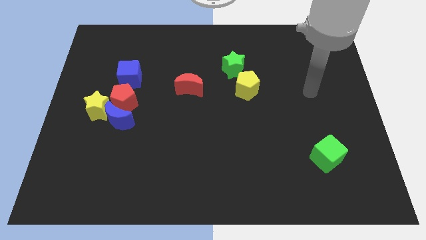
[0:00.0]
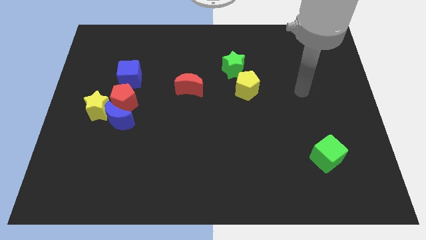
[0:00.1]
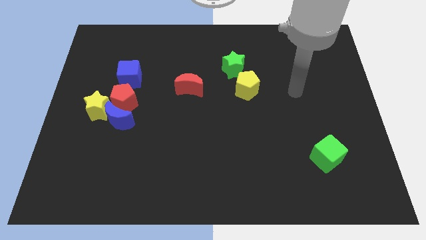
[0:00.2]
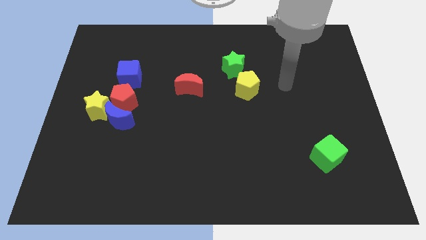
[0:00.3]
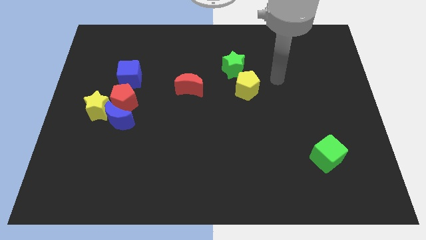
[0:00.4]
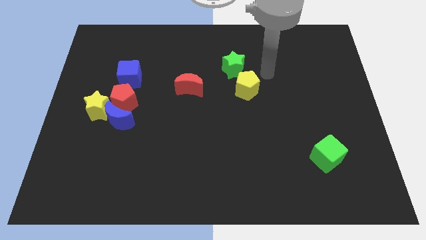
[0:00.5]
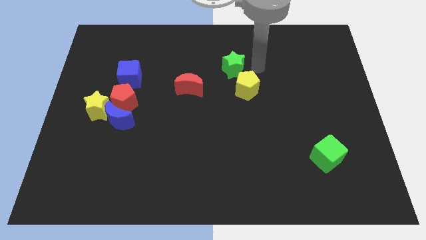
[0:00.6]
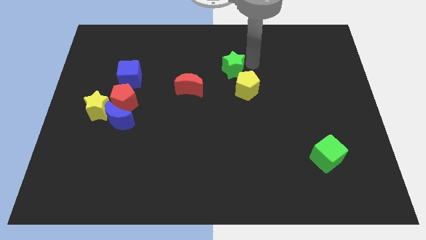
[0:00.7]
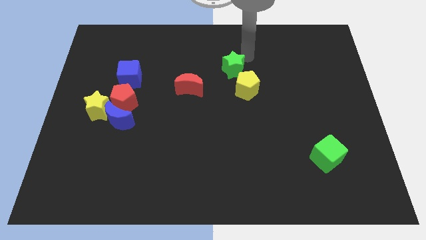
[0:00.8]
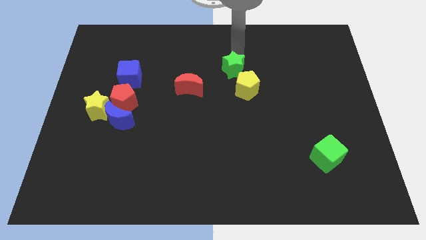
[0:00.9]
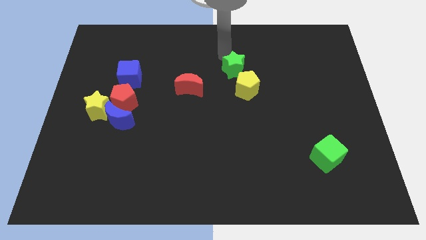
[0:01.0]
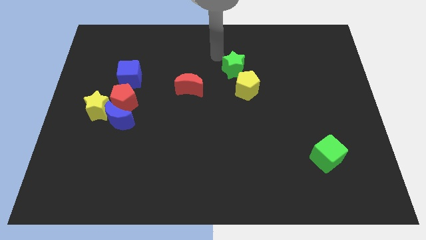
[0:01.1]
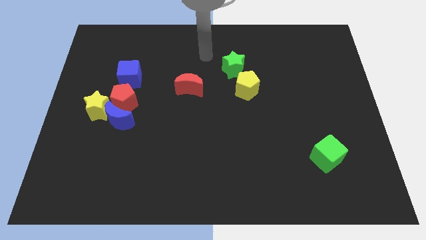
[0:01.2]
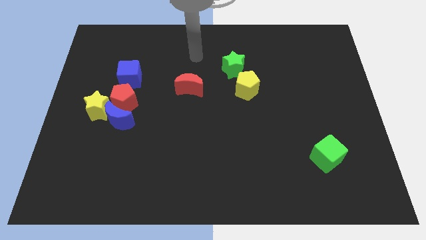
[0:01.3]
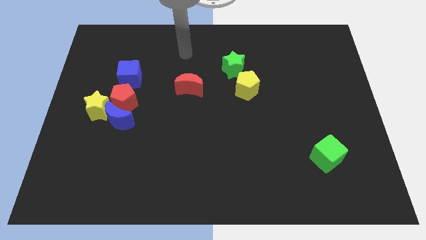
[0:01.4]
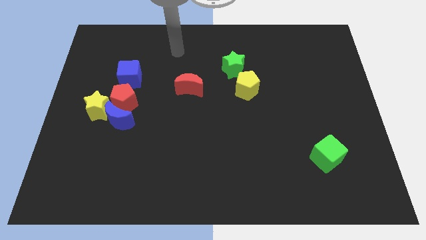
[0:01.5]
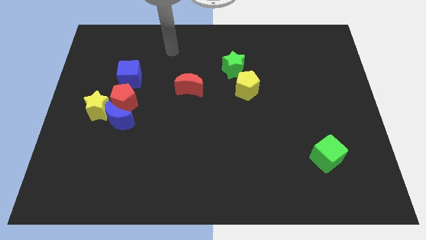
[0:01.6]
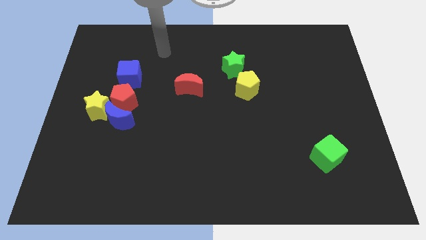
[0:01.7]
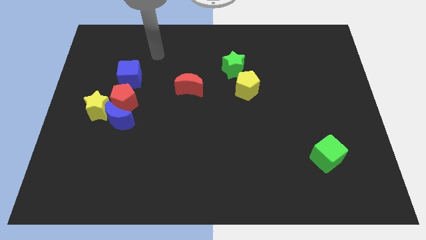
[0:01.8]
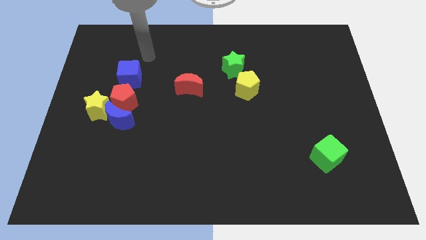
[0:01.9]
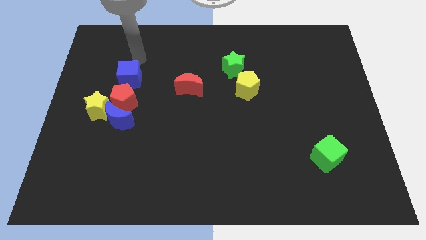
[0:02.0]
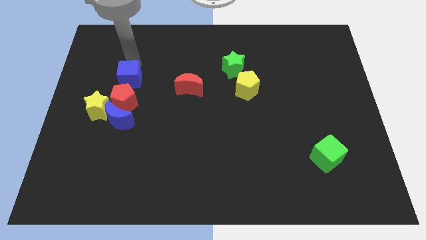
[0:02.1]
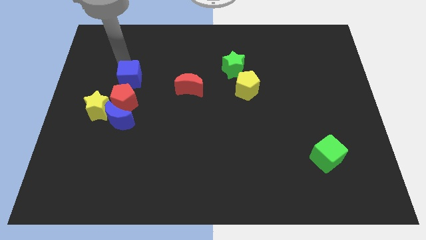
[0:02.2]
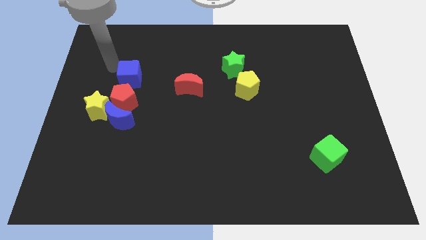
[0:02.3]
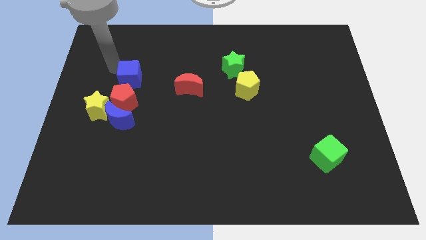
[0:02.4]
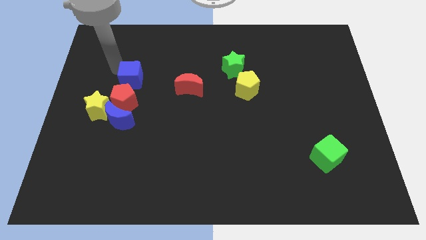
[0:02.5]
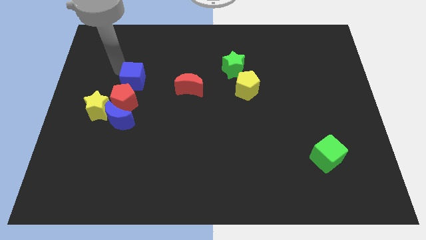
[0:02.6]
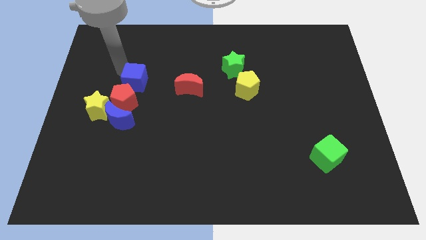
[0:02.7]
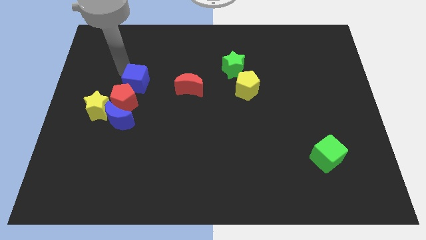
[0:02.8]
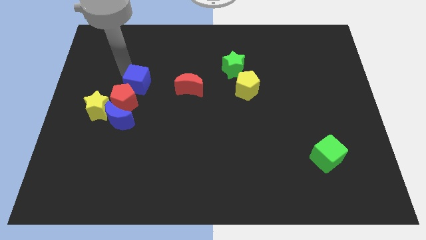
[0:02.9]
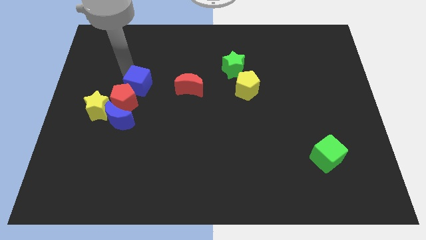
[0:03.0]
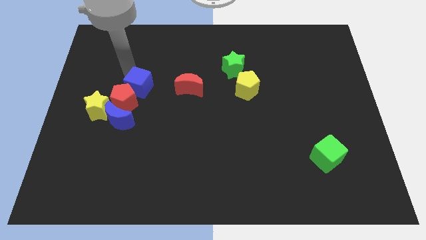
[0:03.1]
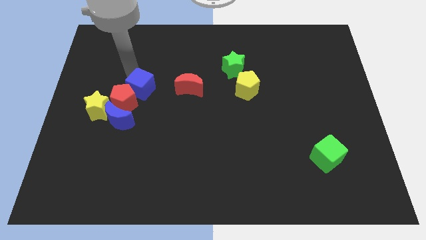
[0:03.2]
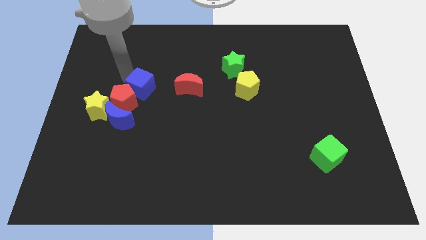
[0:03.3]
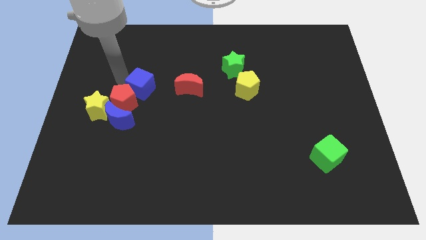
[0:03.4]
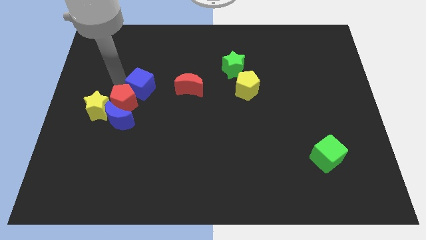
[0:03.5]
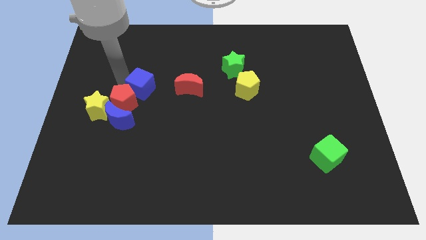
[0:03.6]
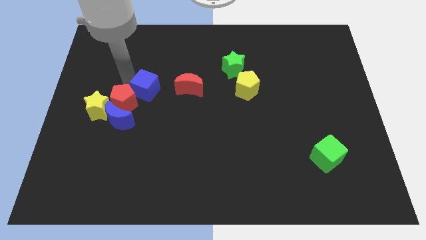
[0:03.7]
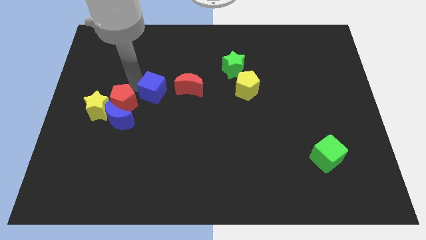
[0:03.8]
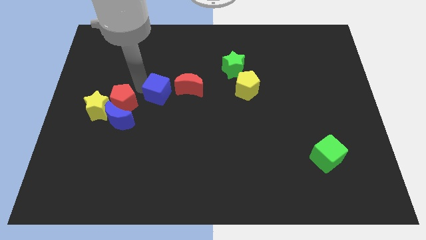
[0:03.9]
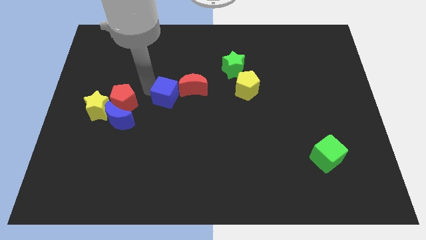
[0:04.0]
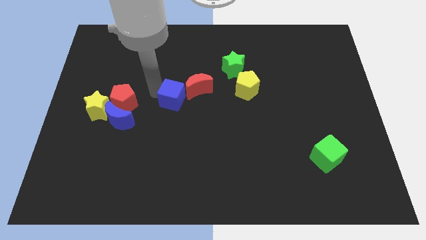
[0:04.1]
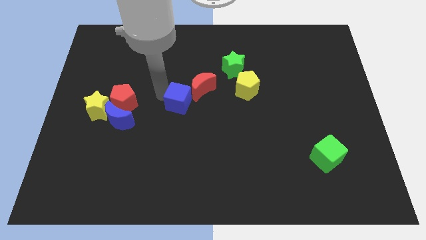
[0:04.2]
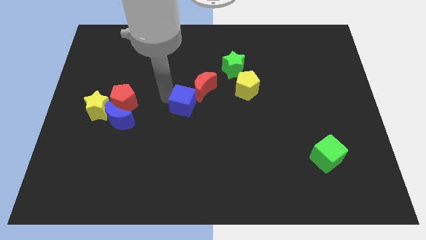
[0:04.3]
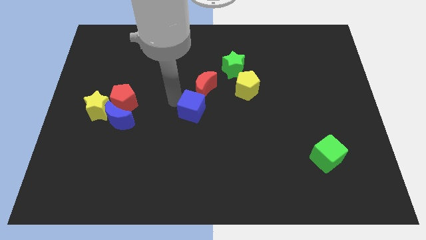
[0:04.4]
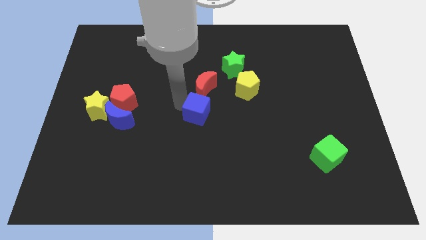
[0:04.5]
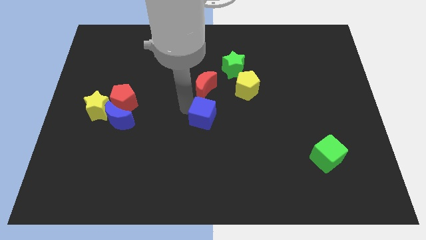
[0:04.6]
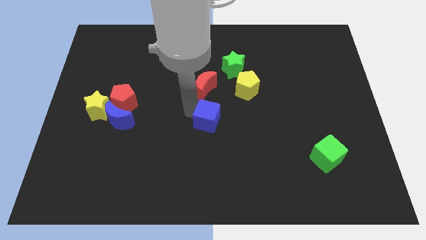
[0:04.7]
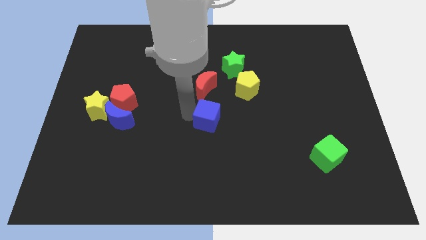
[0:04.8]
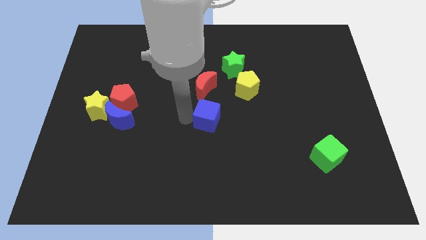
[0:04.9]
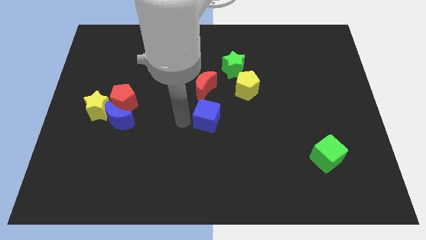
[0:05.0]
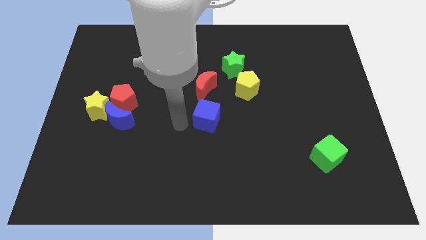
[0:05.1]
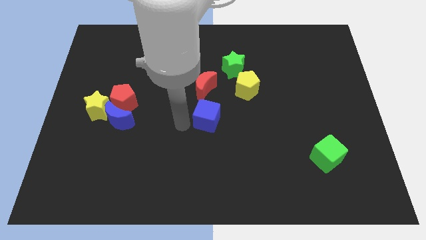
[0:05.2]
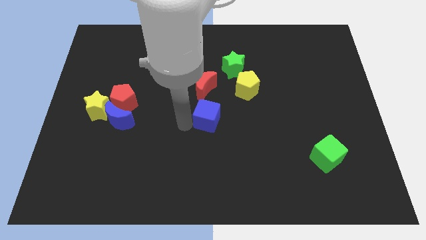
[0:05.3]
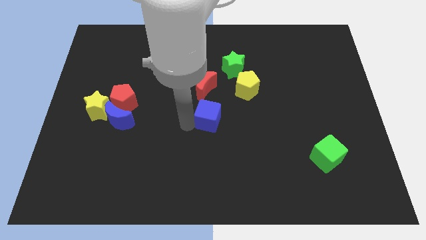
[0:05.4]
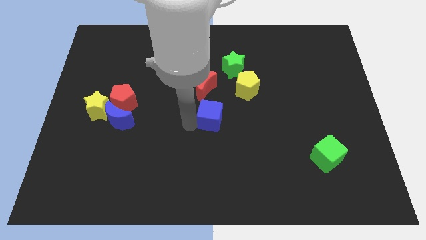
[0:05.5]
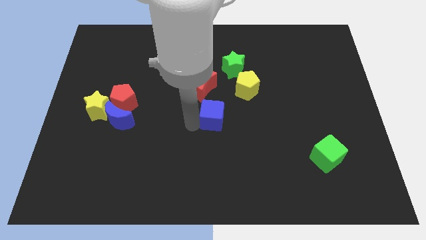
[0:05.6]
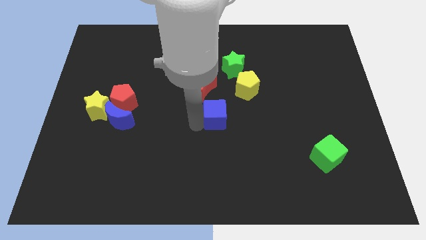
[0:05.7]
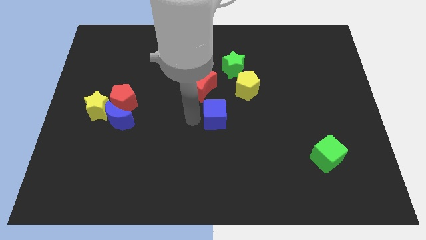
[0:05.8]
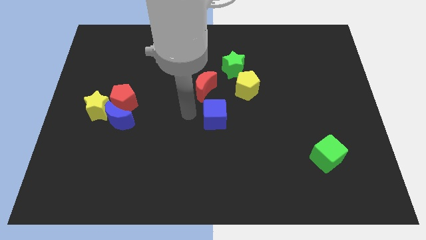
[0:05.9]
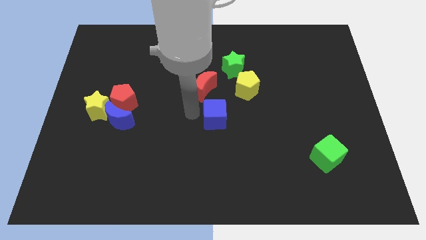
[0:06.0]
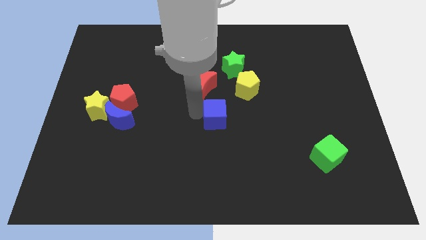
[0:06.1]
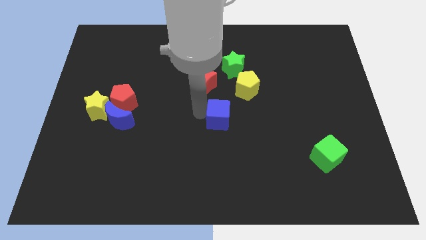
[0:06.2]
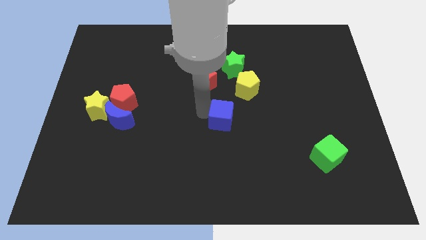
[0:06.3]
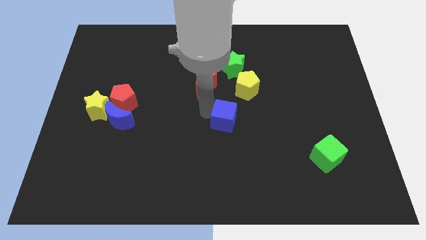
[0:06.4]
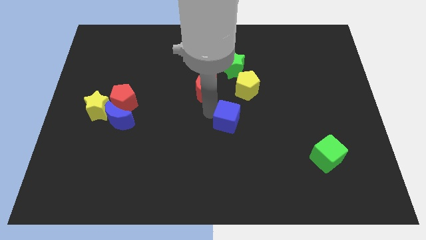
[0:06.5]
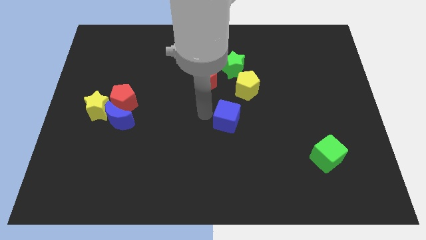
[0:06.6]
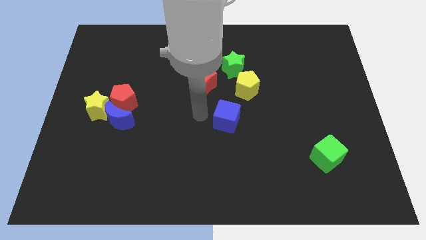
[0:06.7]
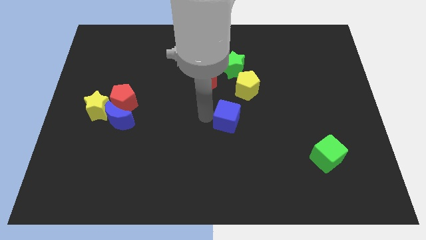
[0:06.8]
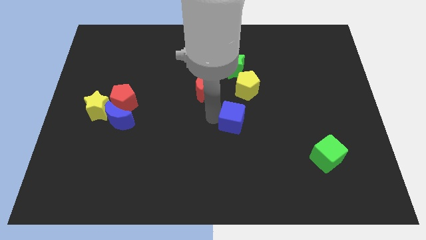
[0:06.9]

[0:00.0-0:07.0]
slide the blue cube below the yellow pentagon

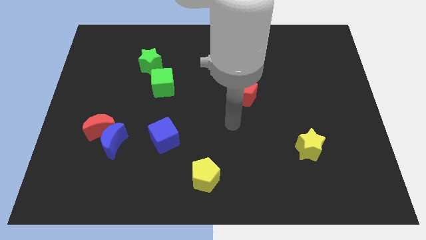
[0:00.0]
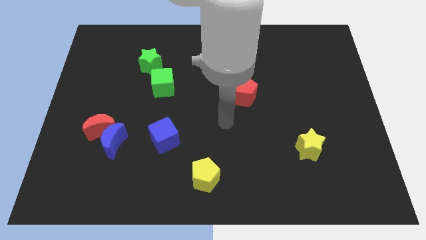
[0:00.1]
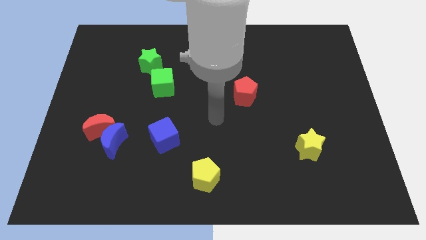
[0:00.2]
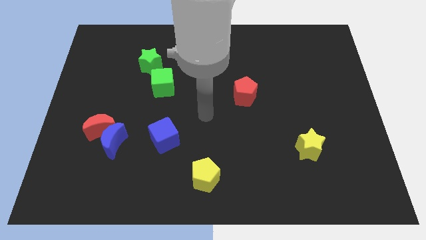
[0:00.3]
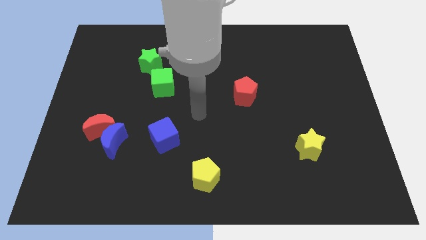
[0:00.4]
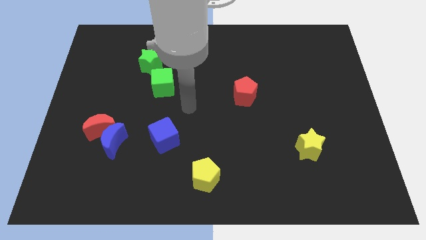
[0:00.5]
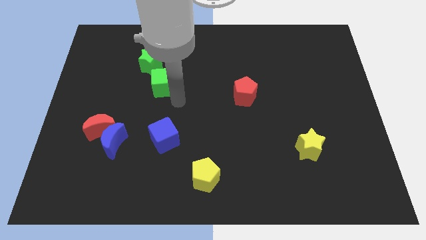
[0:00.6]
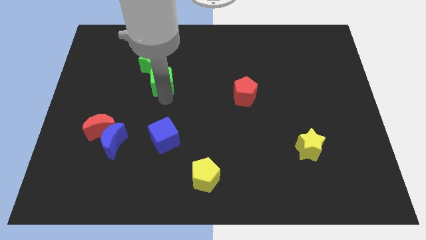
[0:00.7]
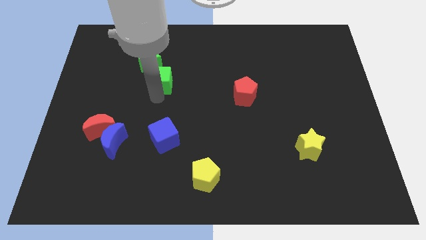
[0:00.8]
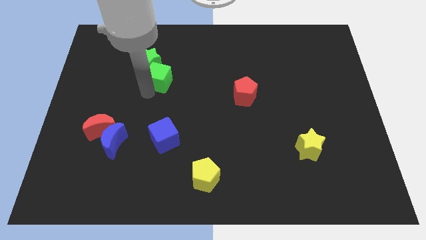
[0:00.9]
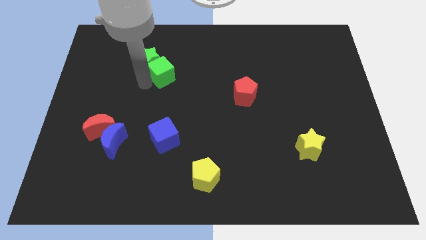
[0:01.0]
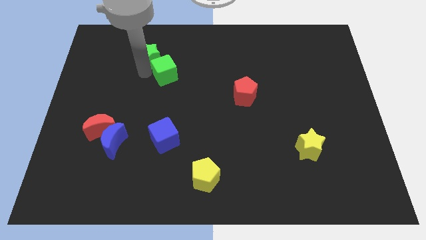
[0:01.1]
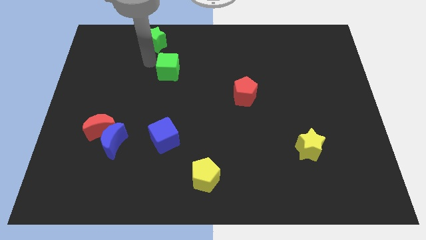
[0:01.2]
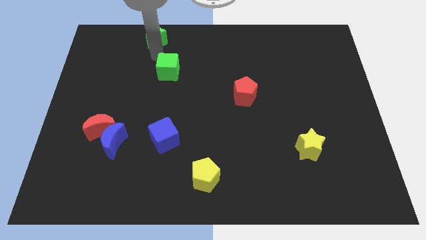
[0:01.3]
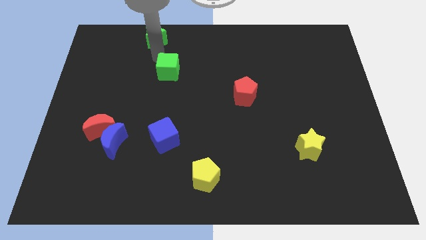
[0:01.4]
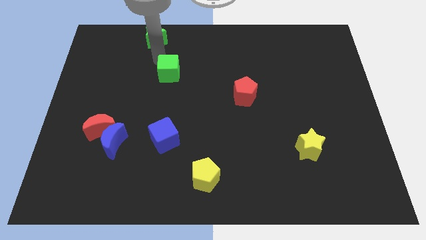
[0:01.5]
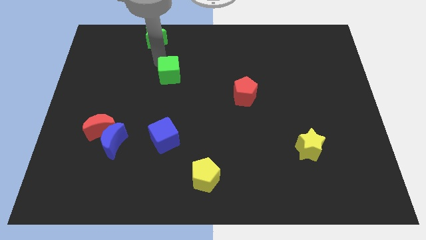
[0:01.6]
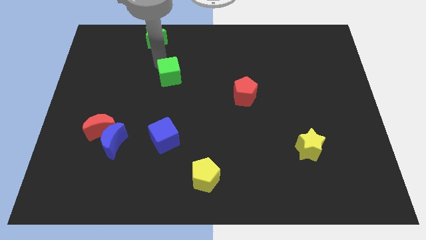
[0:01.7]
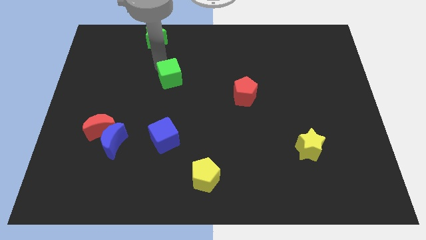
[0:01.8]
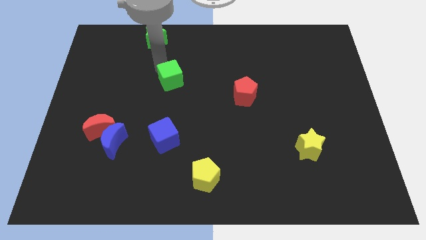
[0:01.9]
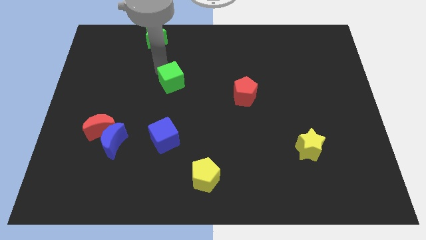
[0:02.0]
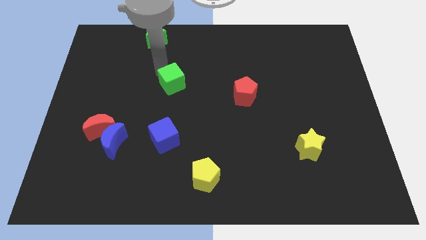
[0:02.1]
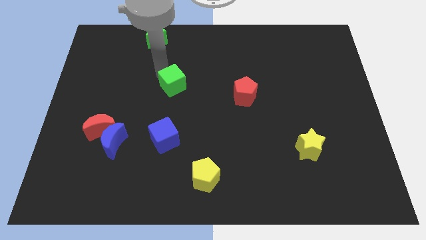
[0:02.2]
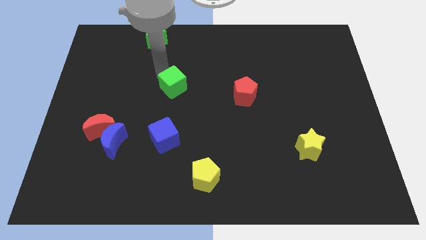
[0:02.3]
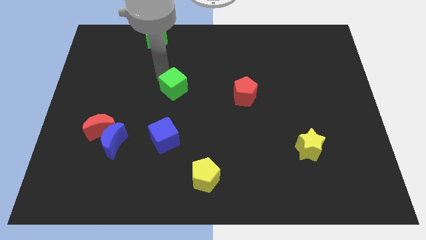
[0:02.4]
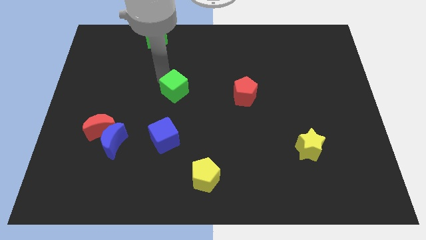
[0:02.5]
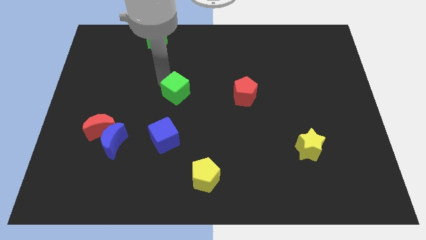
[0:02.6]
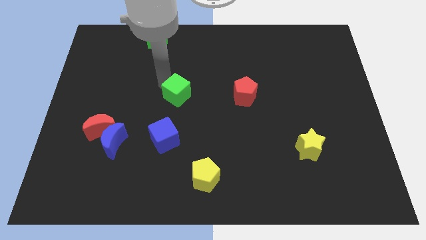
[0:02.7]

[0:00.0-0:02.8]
put the green cube just left of the red pentagon
